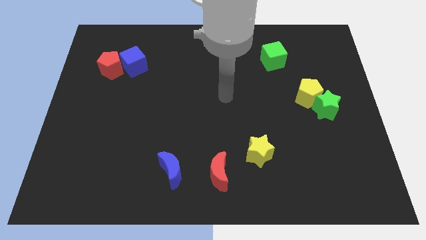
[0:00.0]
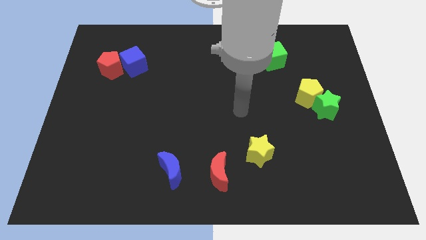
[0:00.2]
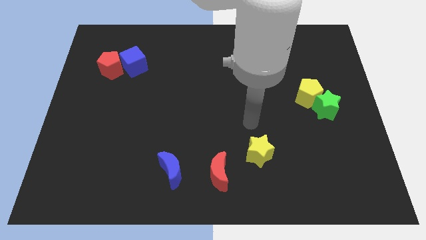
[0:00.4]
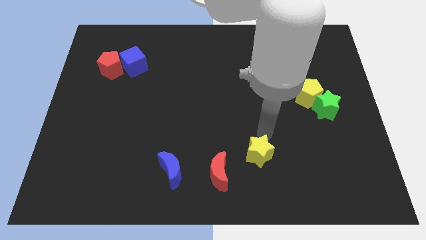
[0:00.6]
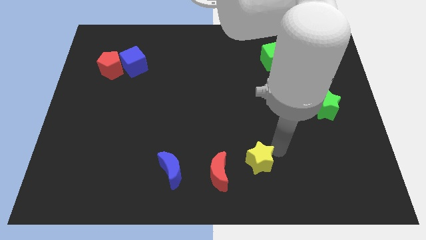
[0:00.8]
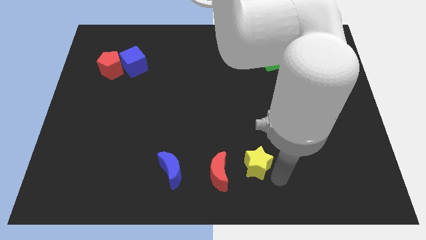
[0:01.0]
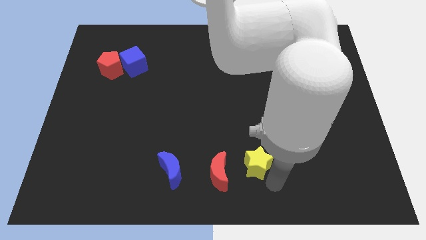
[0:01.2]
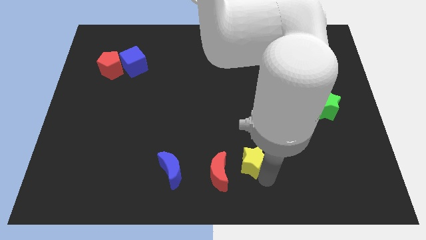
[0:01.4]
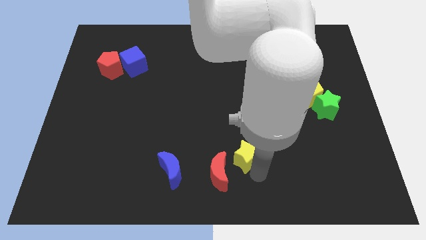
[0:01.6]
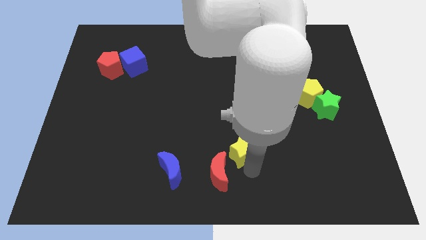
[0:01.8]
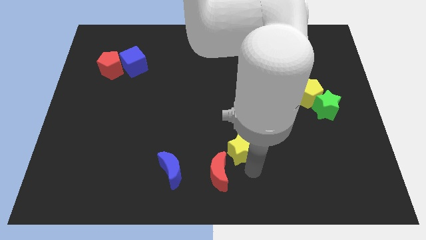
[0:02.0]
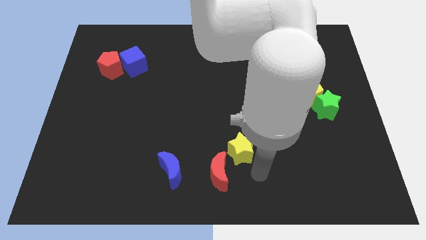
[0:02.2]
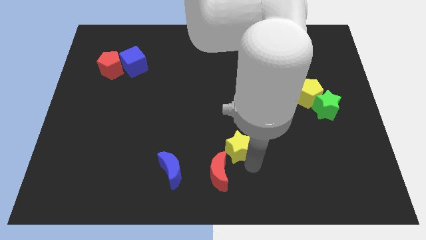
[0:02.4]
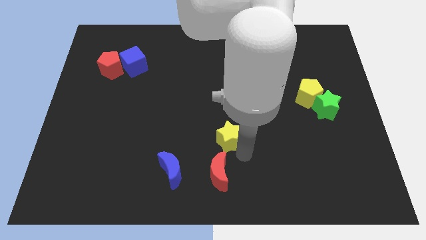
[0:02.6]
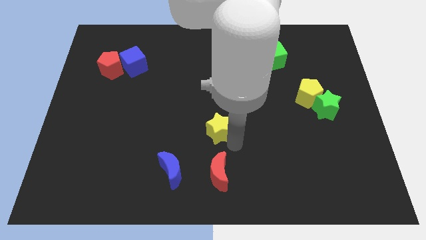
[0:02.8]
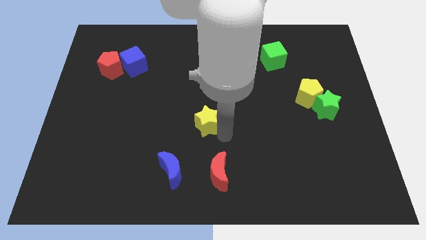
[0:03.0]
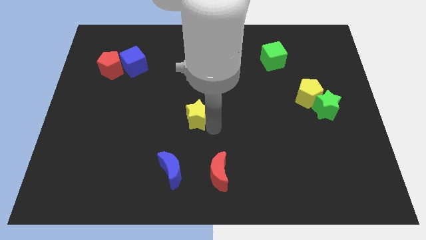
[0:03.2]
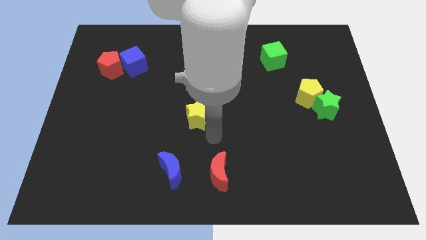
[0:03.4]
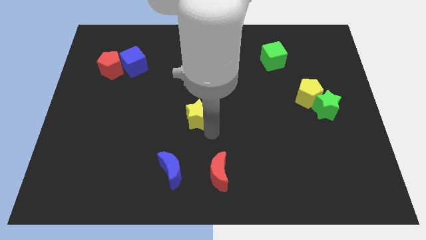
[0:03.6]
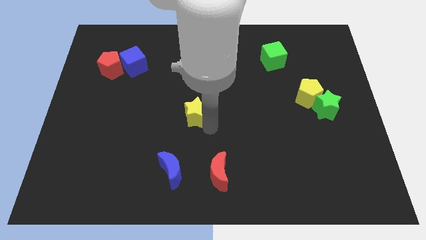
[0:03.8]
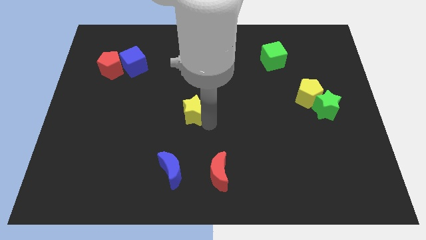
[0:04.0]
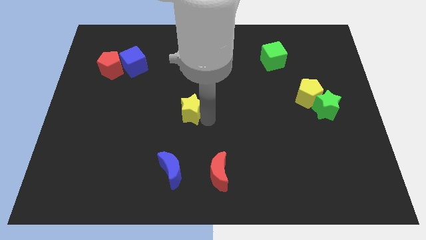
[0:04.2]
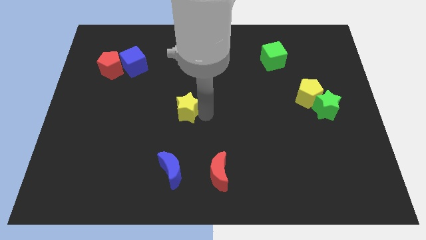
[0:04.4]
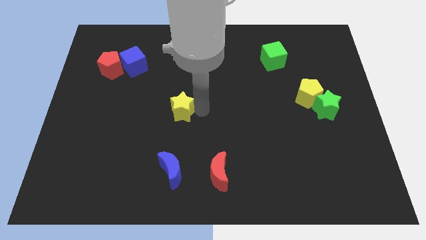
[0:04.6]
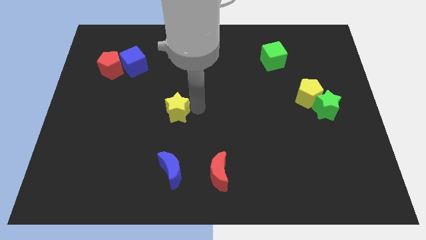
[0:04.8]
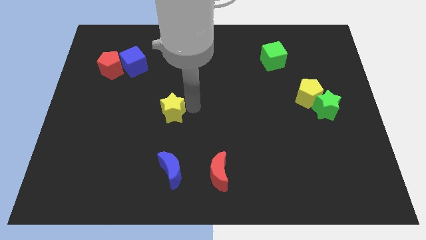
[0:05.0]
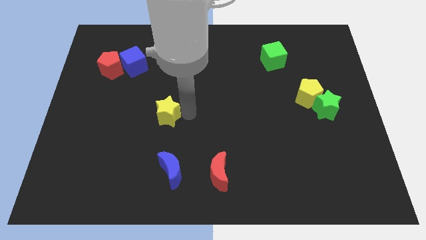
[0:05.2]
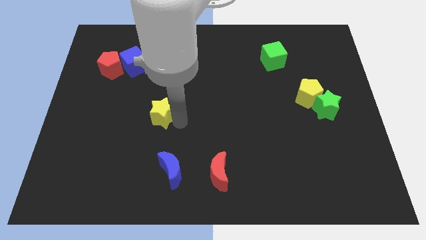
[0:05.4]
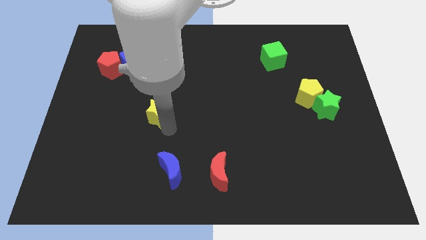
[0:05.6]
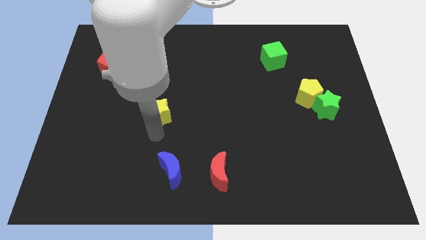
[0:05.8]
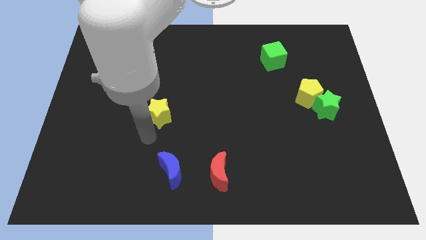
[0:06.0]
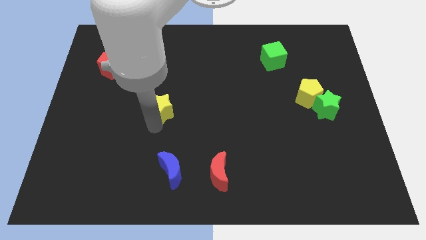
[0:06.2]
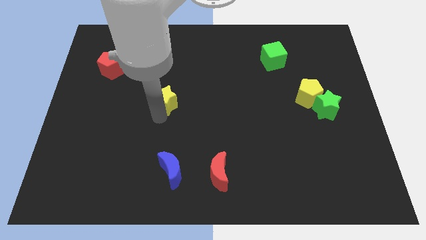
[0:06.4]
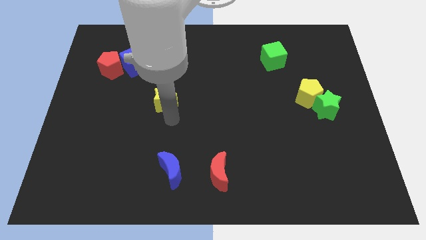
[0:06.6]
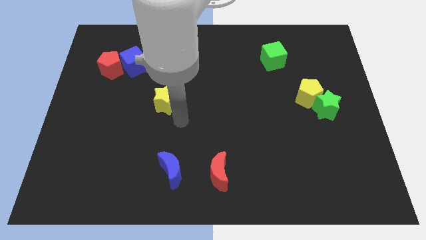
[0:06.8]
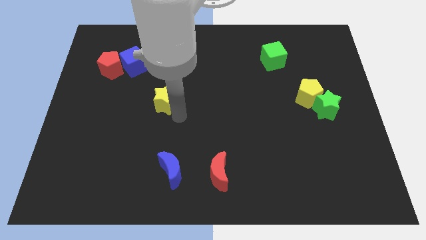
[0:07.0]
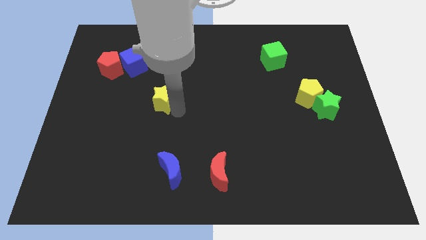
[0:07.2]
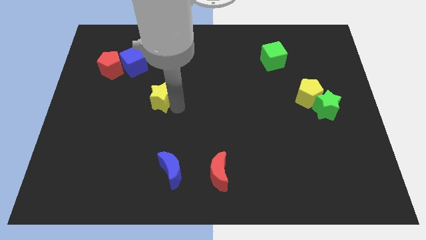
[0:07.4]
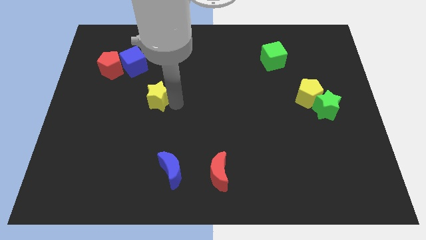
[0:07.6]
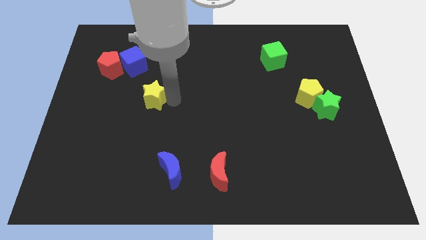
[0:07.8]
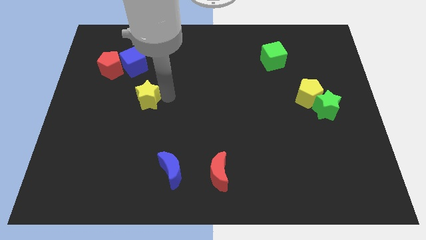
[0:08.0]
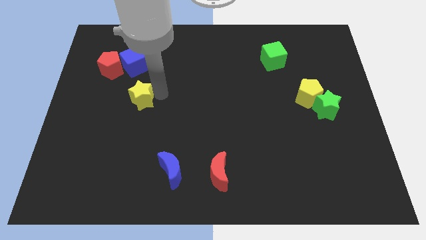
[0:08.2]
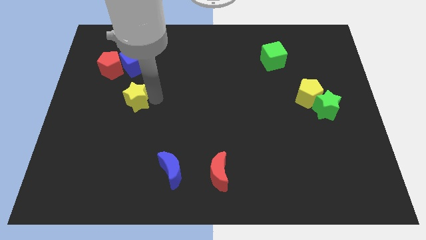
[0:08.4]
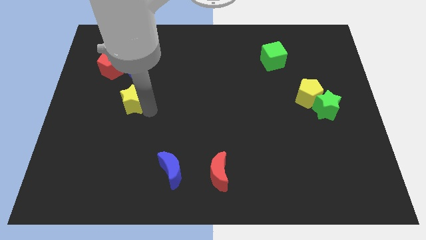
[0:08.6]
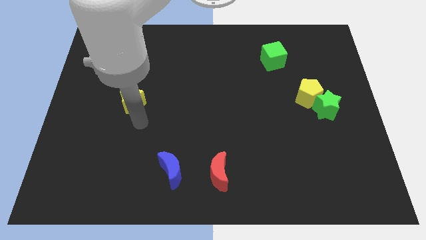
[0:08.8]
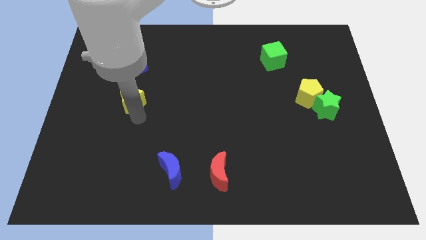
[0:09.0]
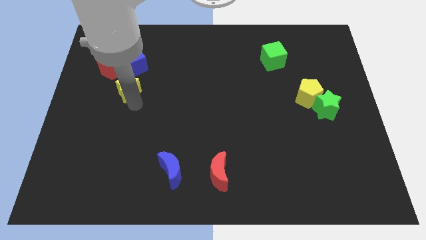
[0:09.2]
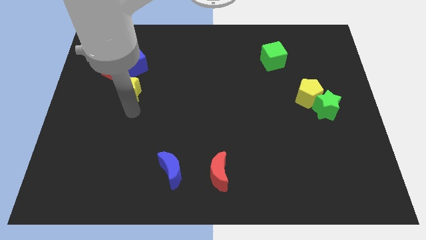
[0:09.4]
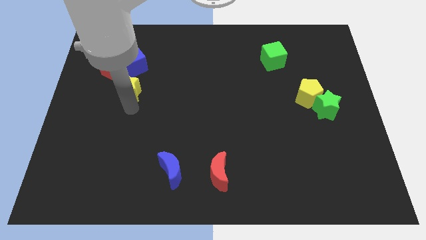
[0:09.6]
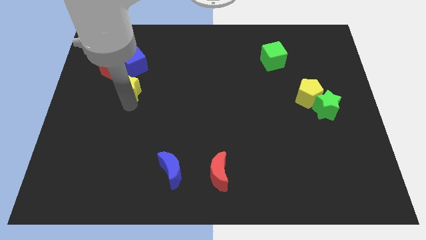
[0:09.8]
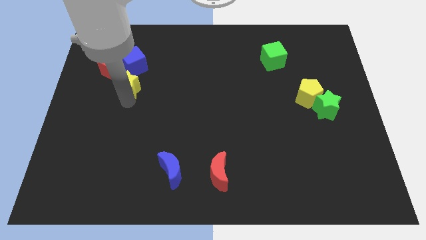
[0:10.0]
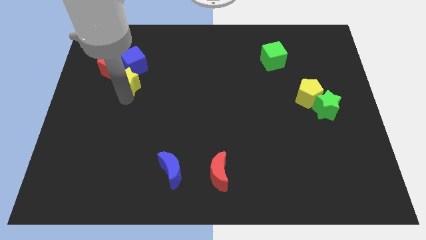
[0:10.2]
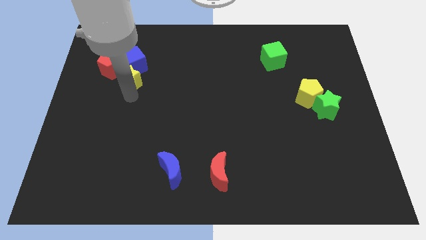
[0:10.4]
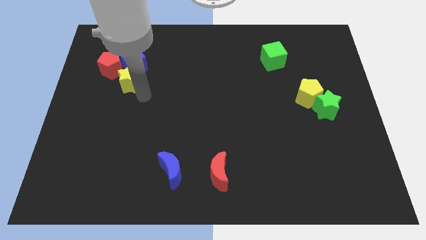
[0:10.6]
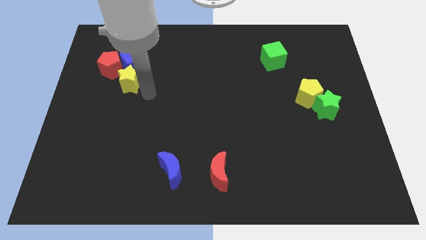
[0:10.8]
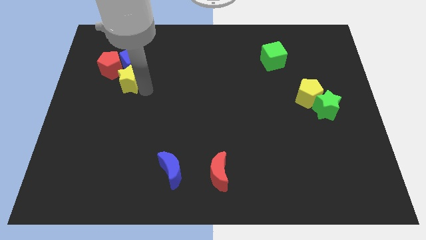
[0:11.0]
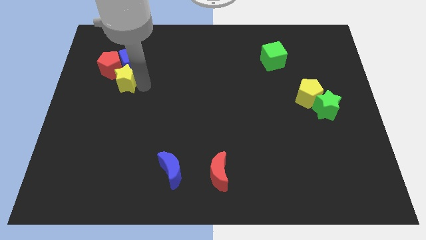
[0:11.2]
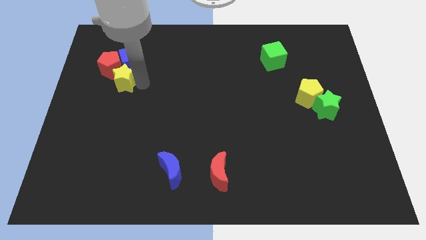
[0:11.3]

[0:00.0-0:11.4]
put the yellow star close to the red pentagon
